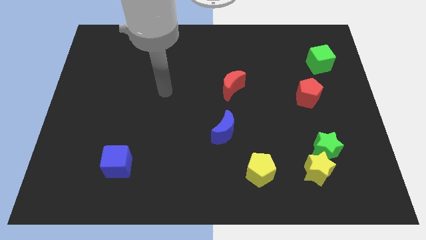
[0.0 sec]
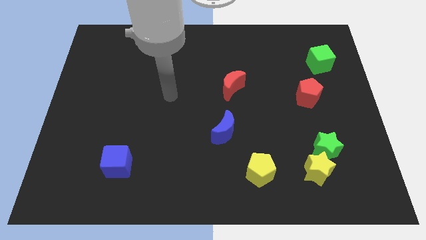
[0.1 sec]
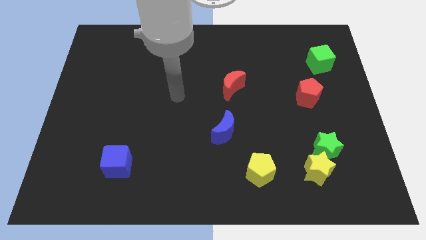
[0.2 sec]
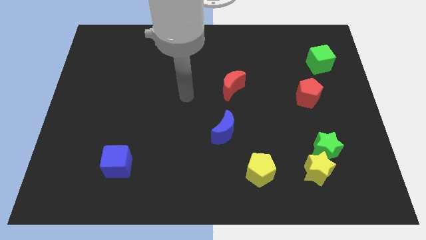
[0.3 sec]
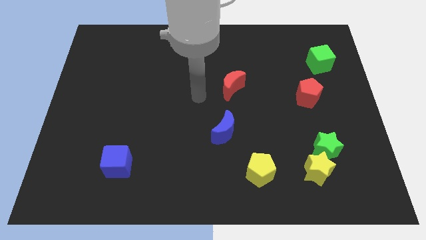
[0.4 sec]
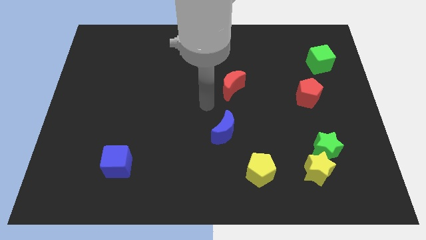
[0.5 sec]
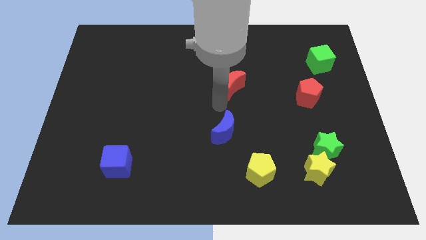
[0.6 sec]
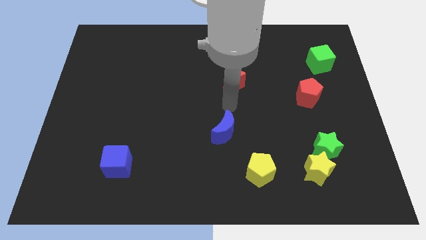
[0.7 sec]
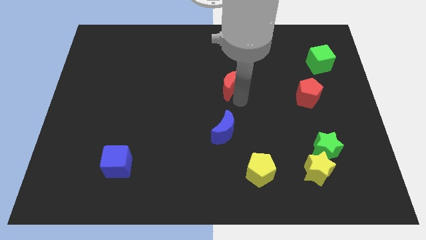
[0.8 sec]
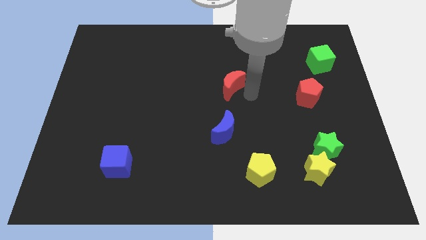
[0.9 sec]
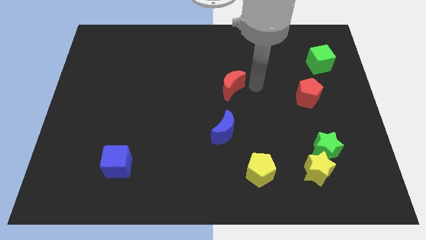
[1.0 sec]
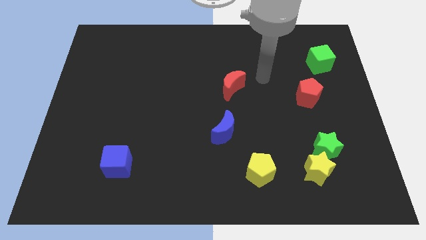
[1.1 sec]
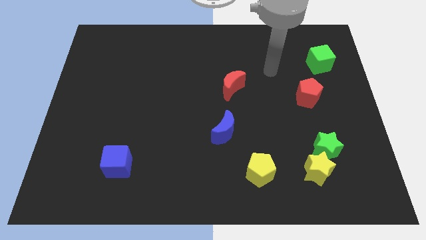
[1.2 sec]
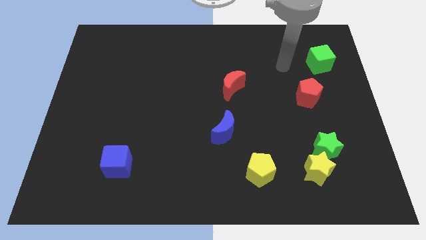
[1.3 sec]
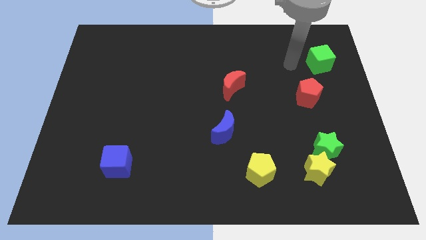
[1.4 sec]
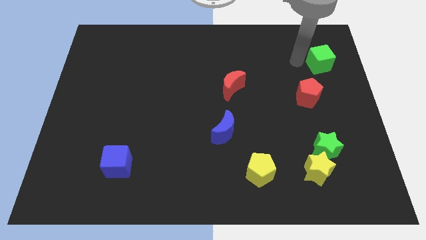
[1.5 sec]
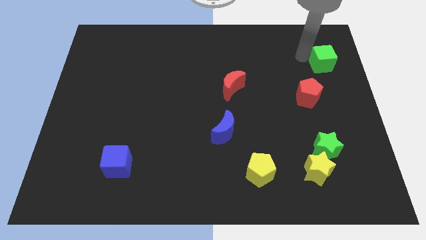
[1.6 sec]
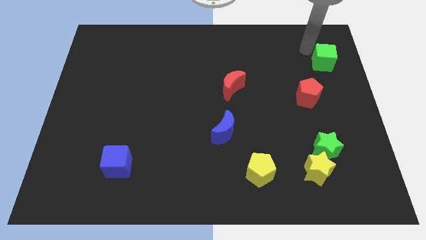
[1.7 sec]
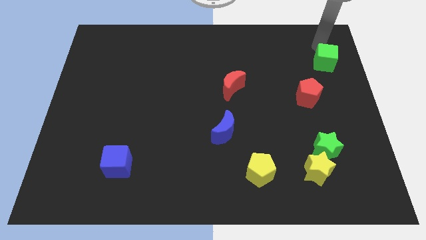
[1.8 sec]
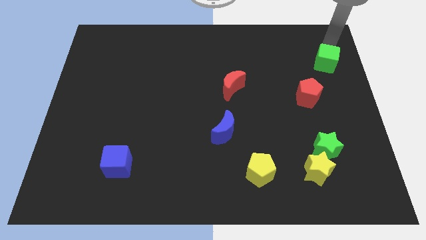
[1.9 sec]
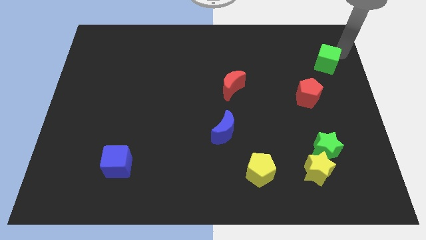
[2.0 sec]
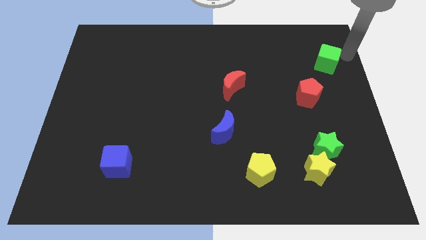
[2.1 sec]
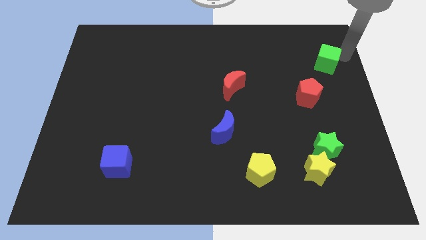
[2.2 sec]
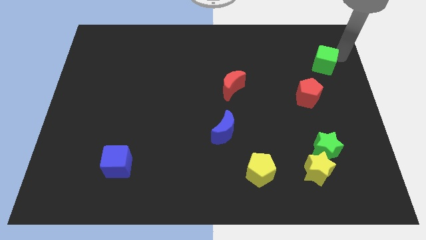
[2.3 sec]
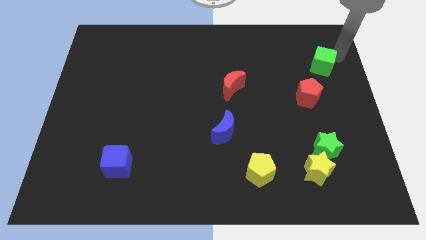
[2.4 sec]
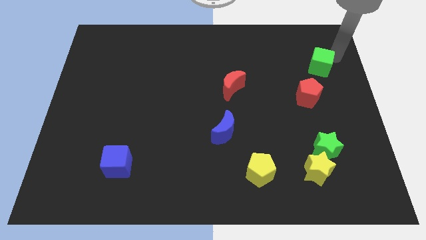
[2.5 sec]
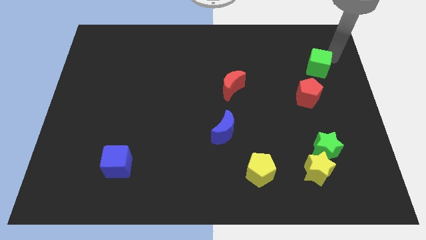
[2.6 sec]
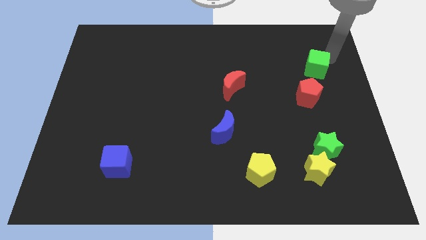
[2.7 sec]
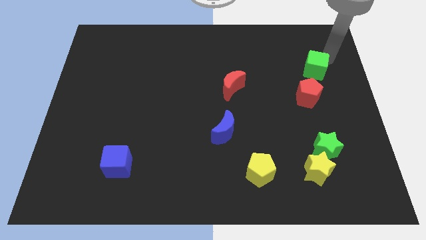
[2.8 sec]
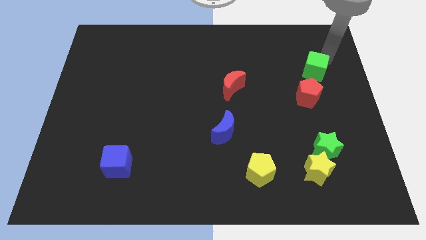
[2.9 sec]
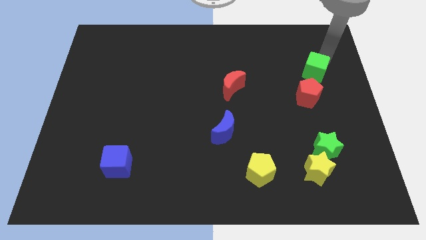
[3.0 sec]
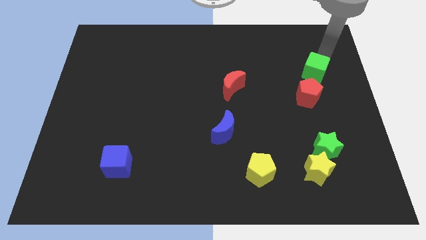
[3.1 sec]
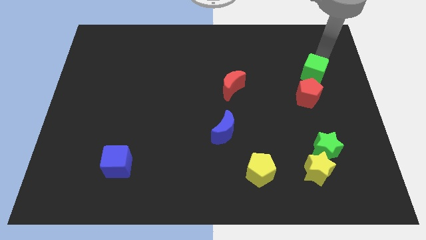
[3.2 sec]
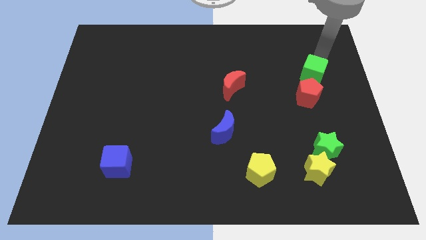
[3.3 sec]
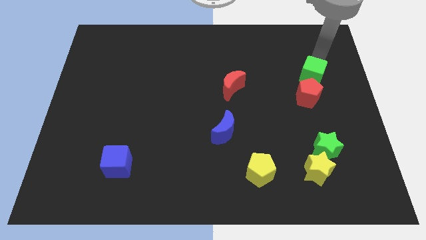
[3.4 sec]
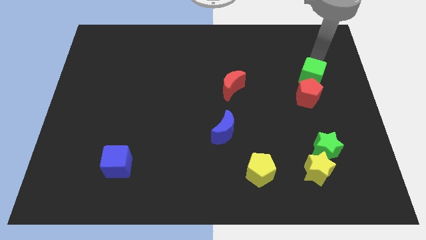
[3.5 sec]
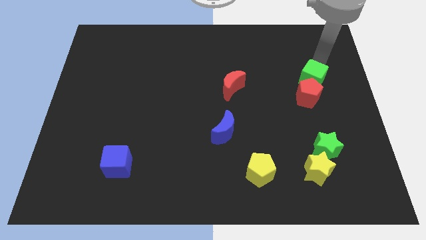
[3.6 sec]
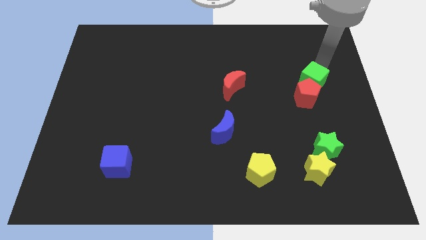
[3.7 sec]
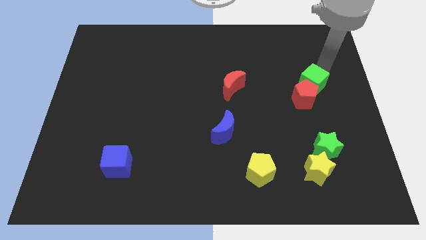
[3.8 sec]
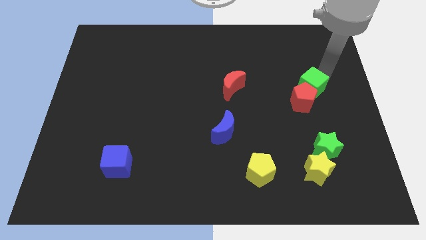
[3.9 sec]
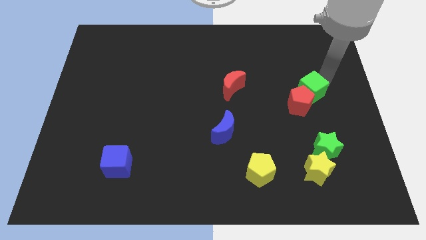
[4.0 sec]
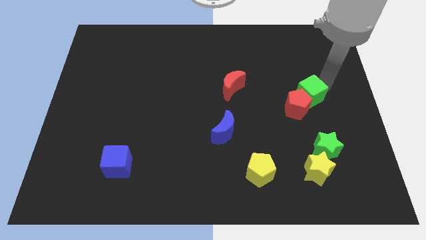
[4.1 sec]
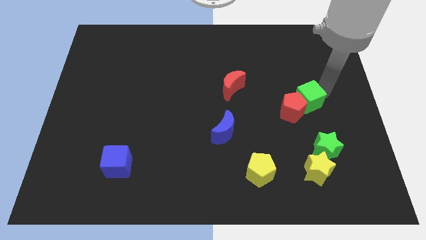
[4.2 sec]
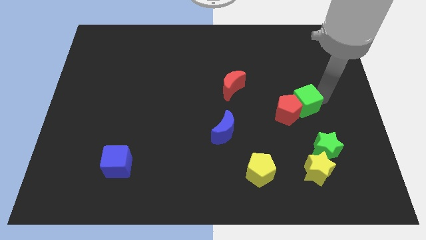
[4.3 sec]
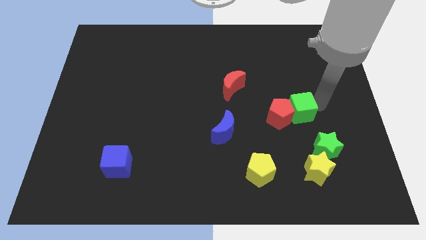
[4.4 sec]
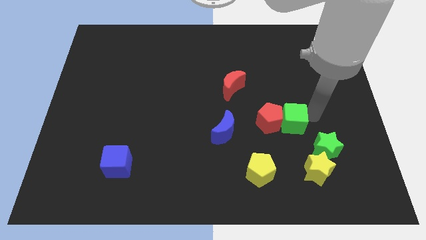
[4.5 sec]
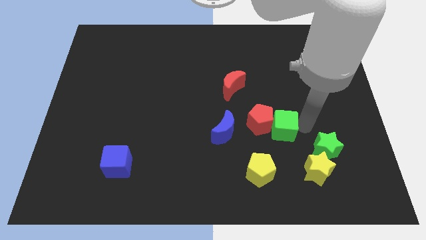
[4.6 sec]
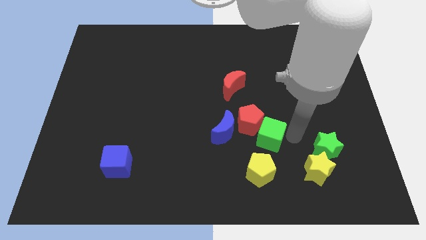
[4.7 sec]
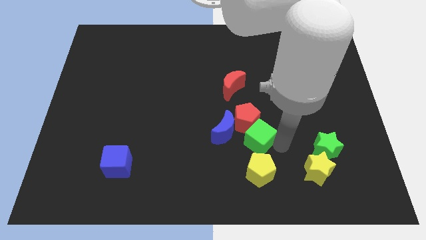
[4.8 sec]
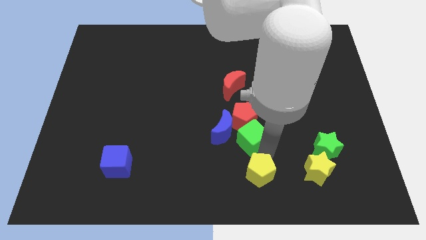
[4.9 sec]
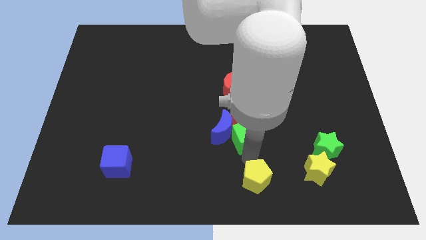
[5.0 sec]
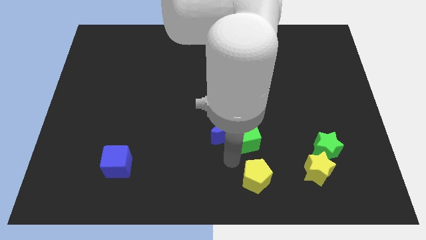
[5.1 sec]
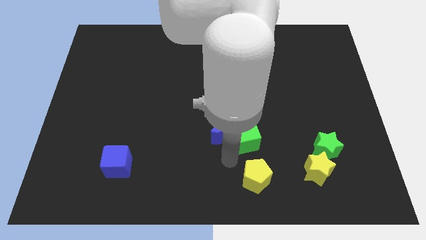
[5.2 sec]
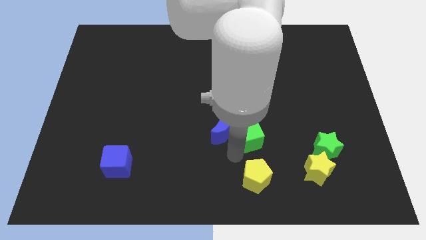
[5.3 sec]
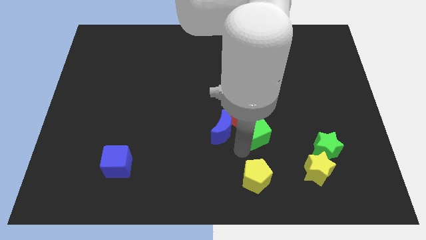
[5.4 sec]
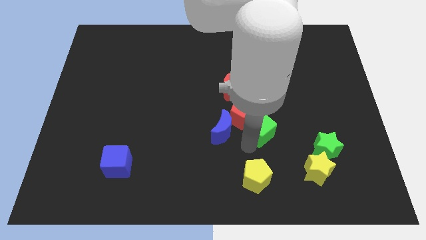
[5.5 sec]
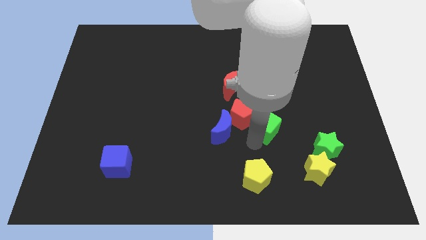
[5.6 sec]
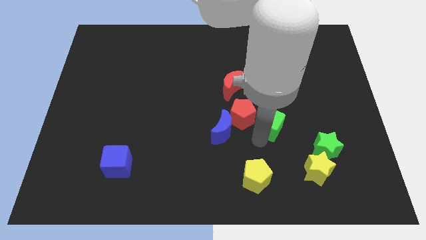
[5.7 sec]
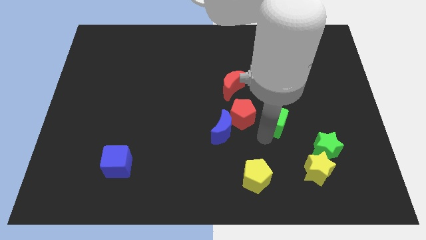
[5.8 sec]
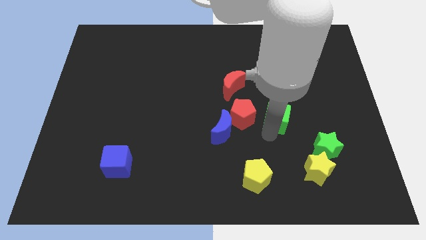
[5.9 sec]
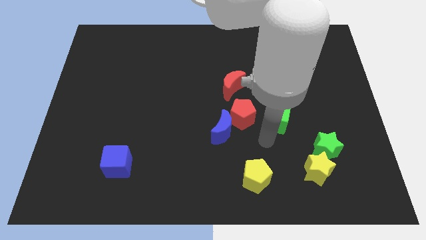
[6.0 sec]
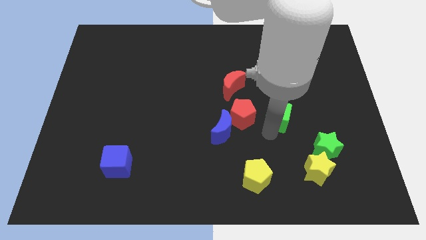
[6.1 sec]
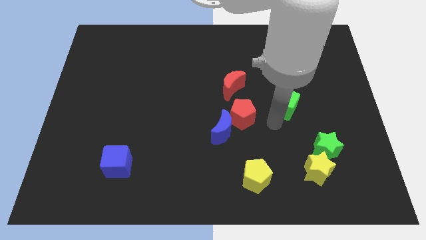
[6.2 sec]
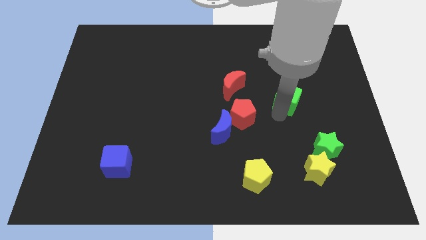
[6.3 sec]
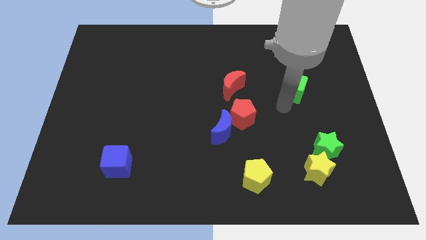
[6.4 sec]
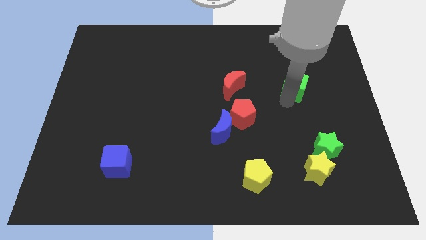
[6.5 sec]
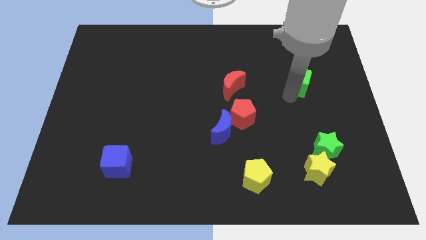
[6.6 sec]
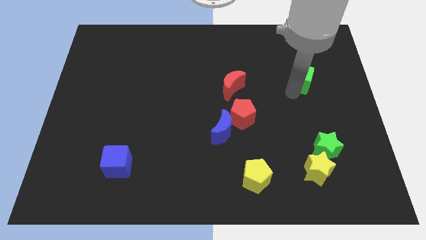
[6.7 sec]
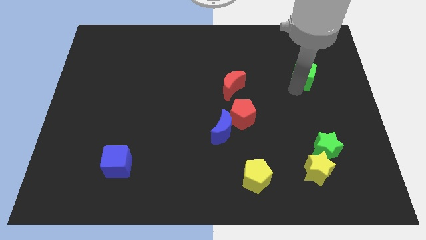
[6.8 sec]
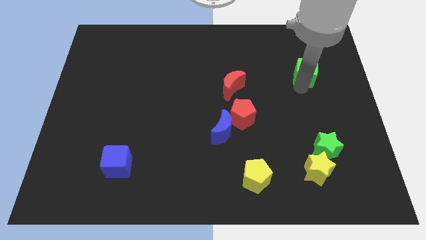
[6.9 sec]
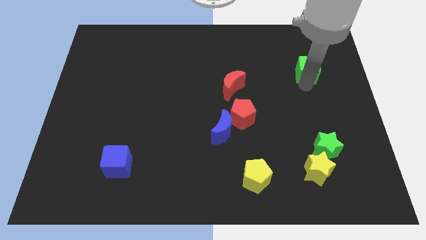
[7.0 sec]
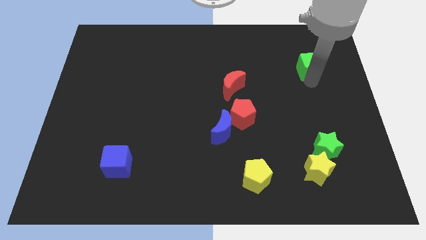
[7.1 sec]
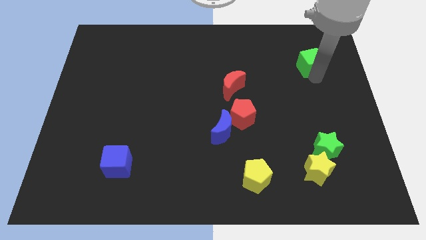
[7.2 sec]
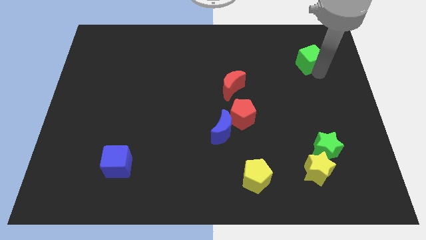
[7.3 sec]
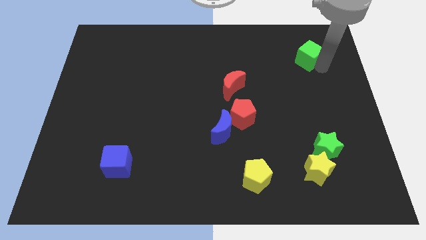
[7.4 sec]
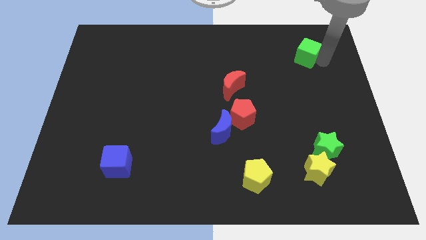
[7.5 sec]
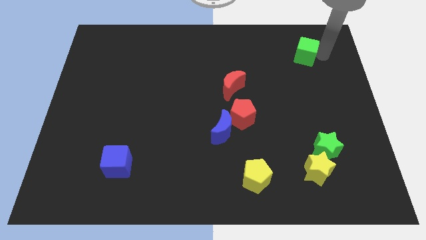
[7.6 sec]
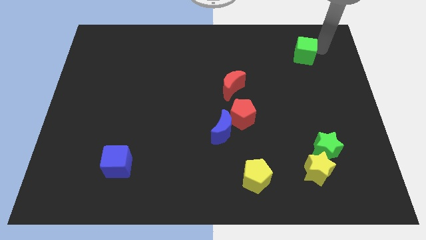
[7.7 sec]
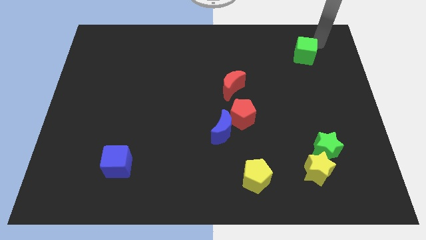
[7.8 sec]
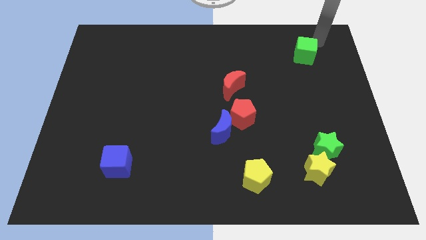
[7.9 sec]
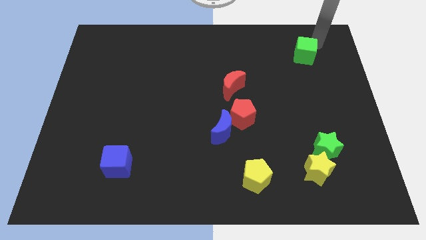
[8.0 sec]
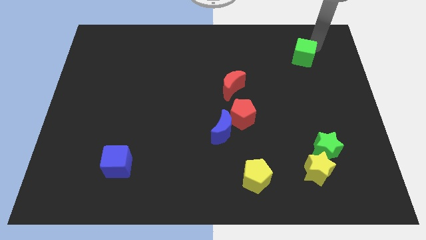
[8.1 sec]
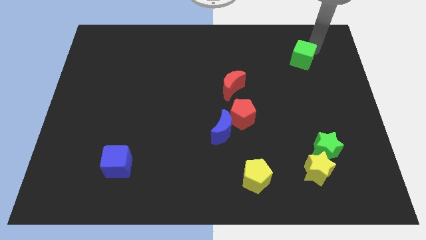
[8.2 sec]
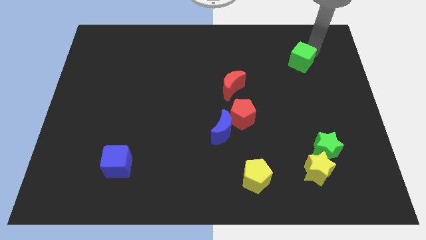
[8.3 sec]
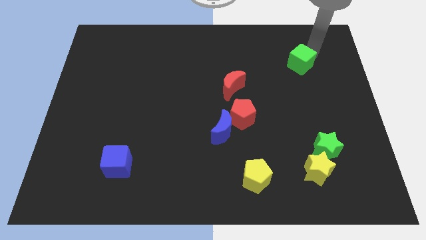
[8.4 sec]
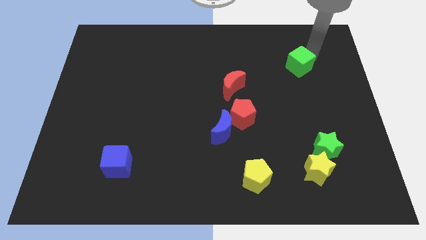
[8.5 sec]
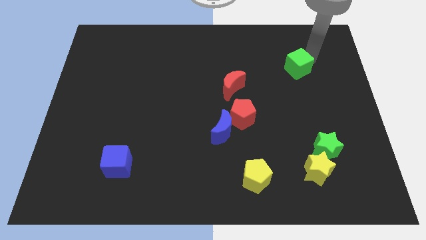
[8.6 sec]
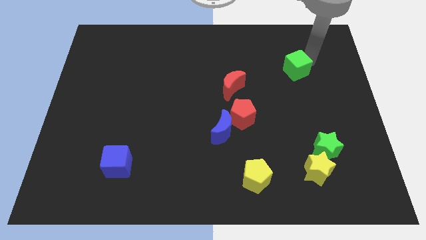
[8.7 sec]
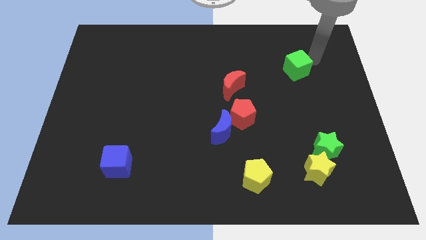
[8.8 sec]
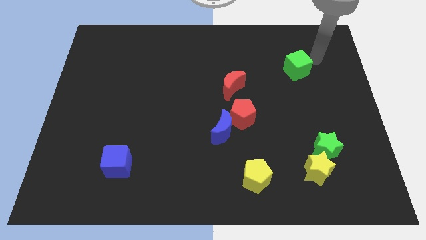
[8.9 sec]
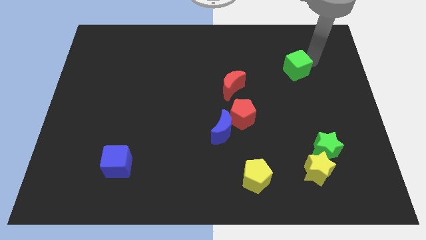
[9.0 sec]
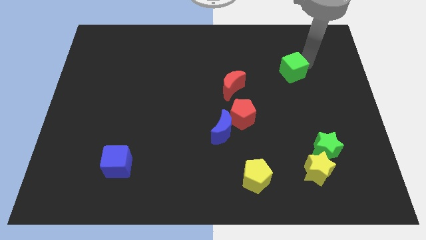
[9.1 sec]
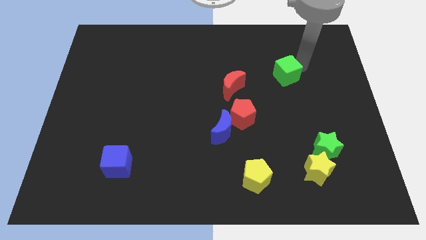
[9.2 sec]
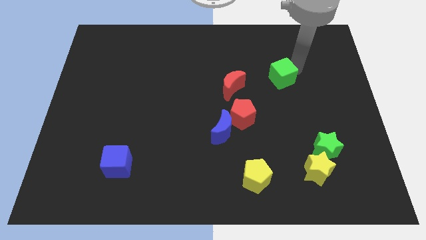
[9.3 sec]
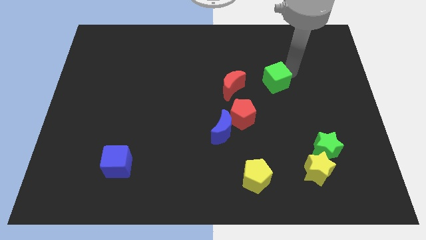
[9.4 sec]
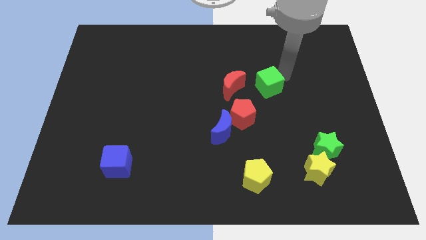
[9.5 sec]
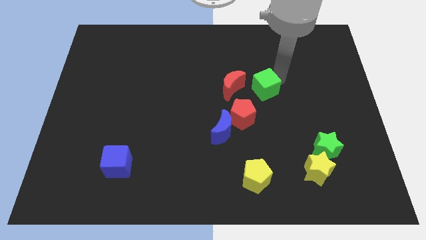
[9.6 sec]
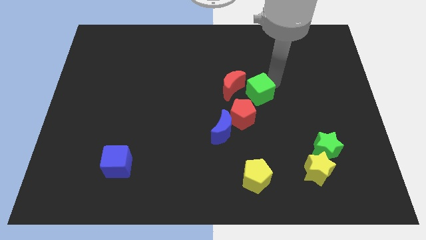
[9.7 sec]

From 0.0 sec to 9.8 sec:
move the green cube to the middle of the board
